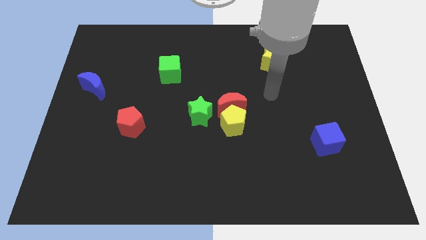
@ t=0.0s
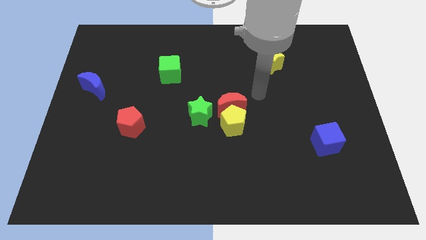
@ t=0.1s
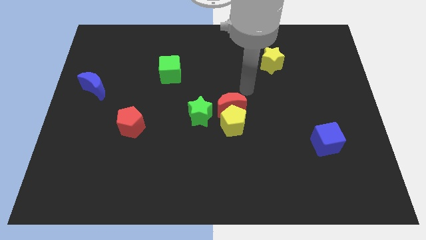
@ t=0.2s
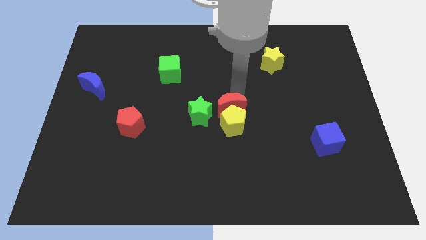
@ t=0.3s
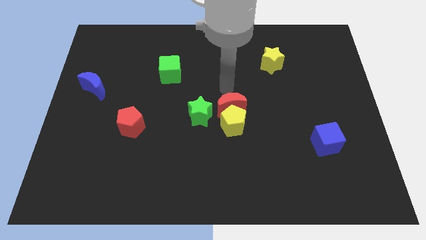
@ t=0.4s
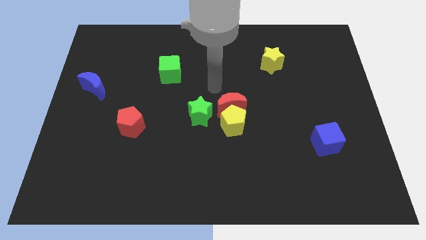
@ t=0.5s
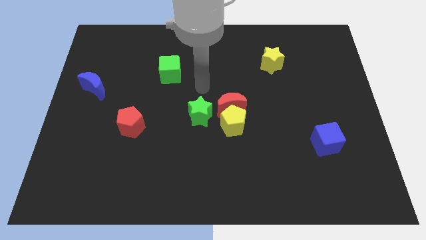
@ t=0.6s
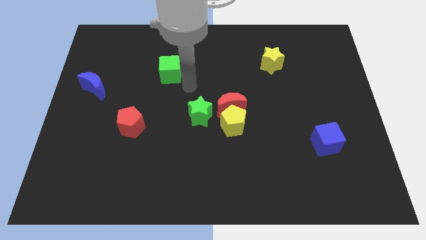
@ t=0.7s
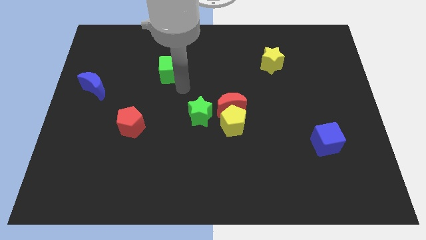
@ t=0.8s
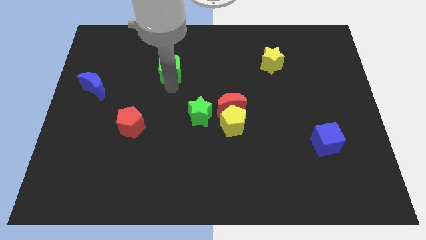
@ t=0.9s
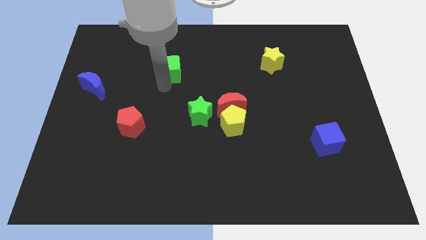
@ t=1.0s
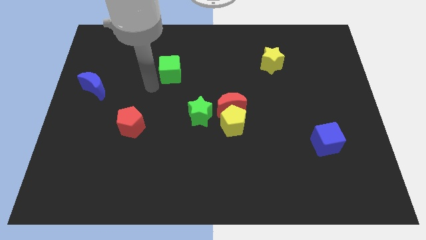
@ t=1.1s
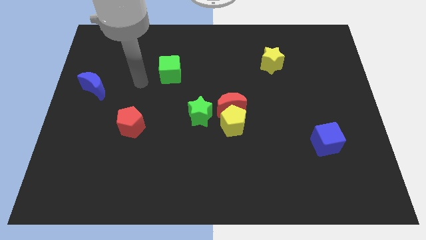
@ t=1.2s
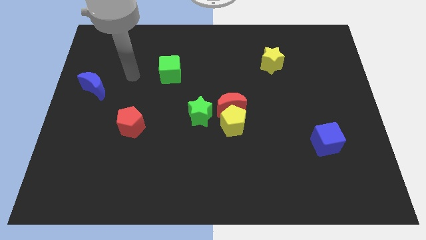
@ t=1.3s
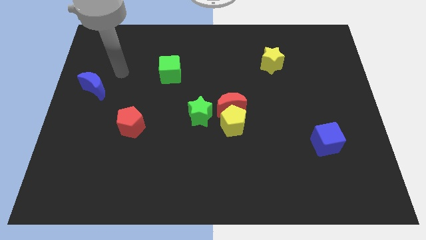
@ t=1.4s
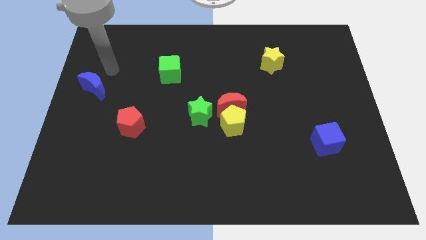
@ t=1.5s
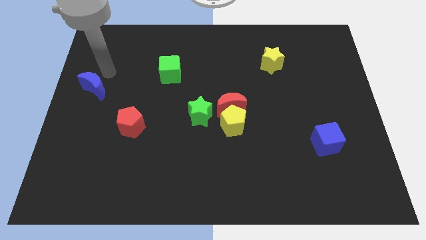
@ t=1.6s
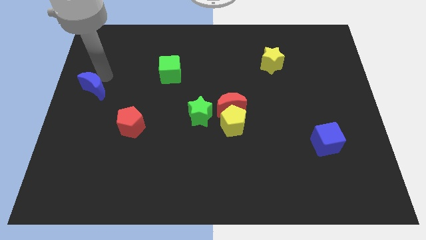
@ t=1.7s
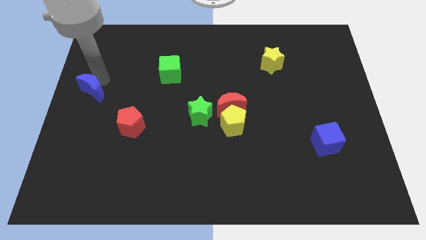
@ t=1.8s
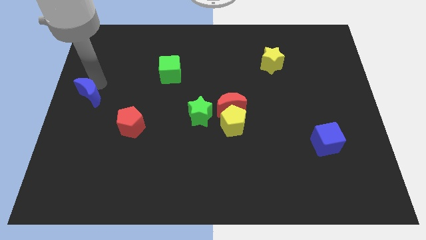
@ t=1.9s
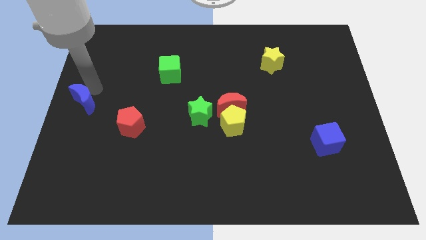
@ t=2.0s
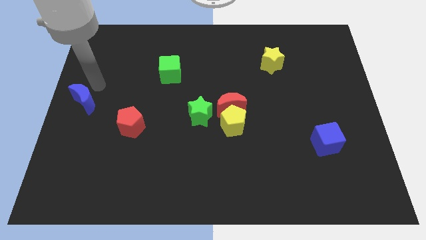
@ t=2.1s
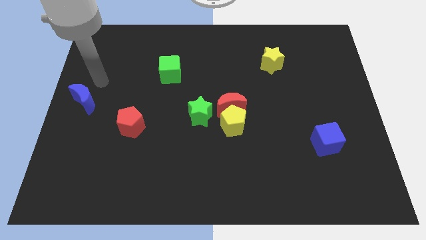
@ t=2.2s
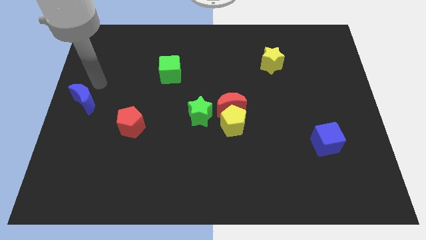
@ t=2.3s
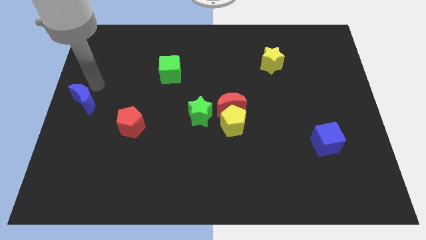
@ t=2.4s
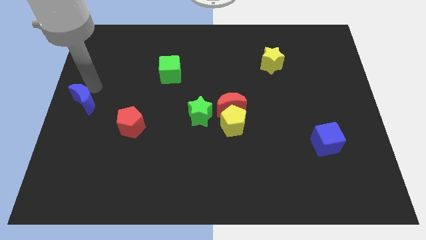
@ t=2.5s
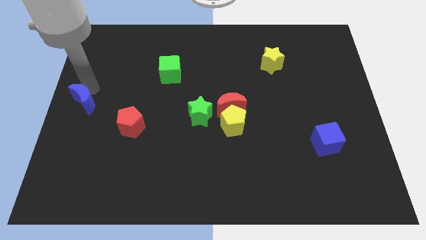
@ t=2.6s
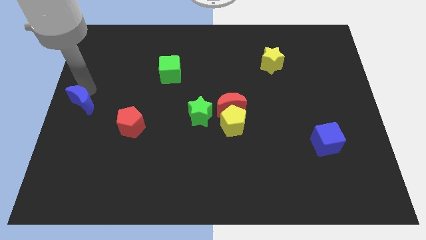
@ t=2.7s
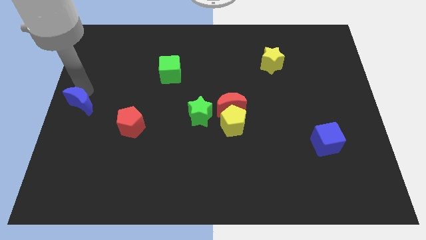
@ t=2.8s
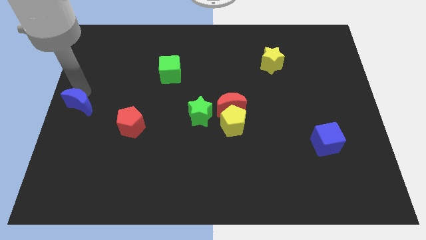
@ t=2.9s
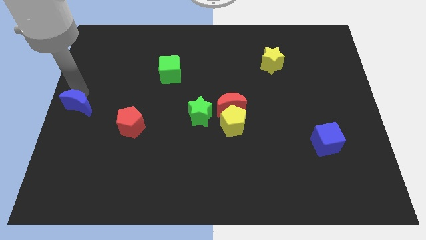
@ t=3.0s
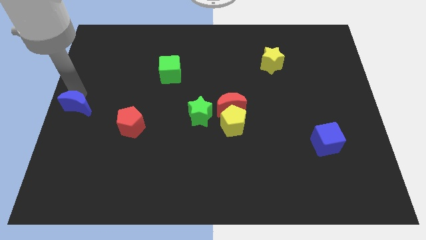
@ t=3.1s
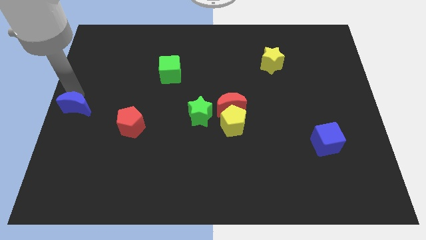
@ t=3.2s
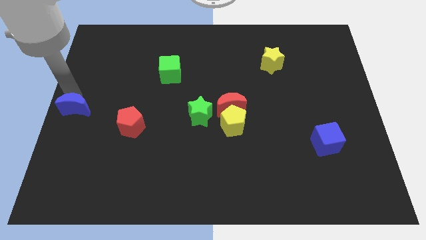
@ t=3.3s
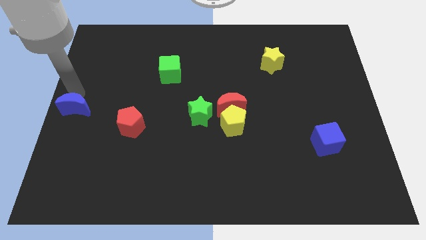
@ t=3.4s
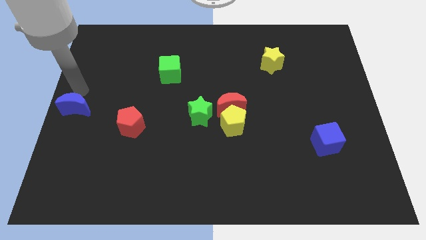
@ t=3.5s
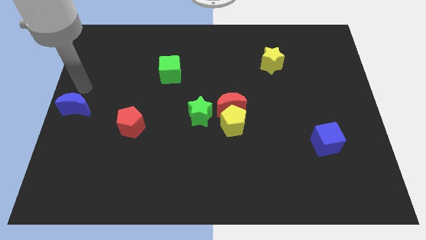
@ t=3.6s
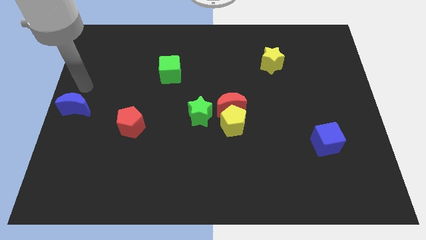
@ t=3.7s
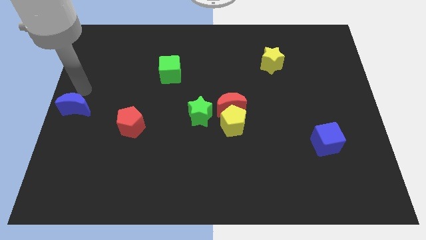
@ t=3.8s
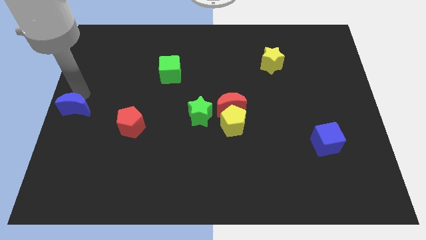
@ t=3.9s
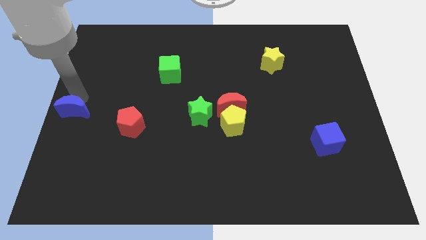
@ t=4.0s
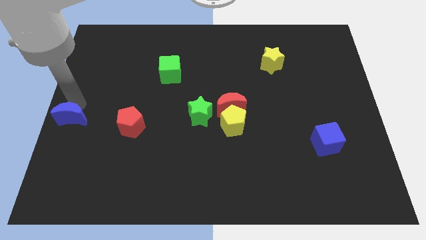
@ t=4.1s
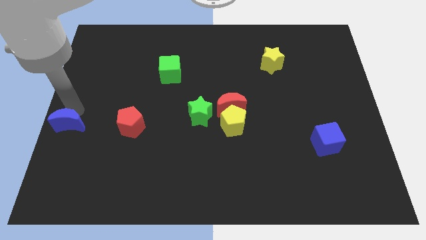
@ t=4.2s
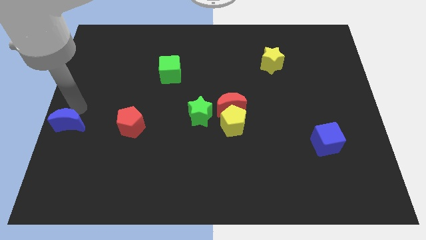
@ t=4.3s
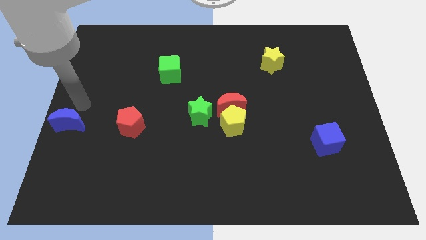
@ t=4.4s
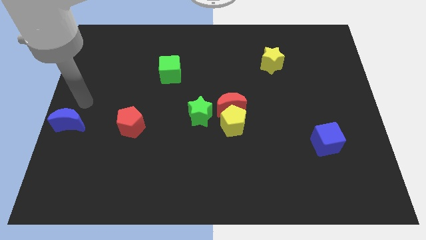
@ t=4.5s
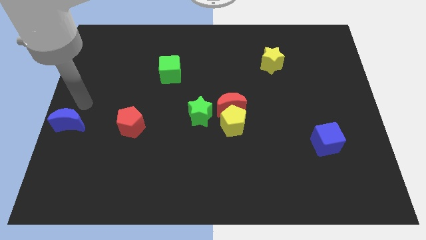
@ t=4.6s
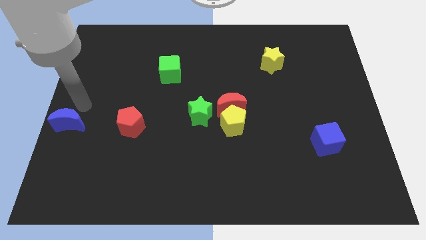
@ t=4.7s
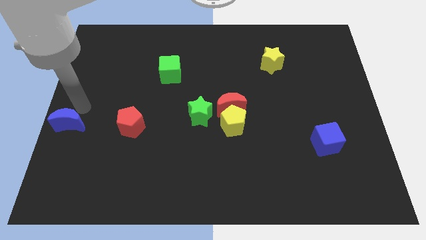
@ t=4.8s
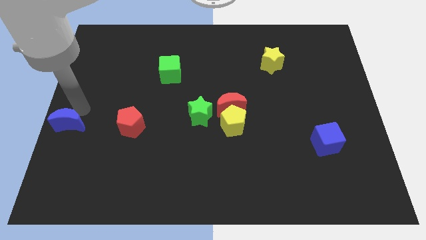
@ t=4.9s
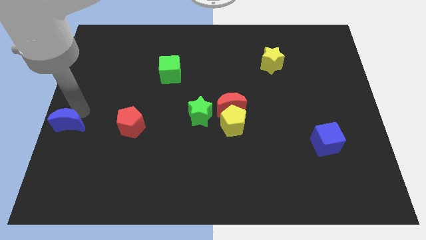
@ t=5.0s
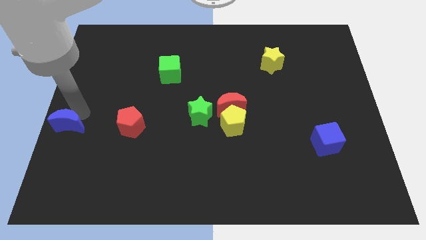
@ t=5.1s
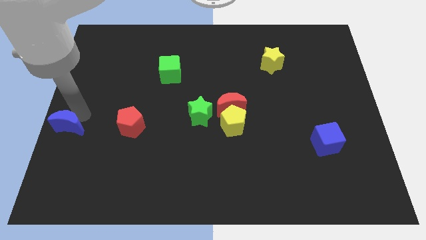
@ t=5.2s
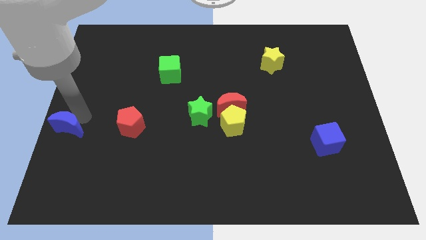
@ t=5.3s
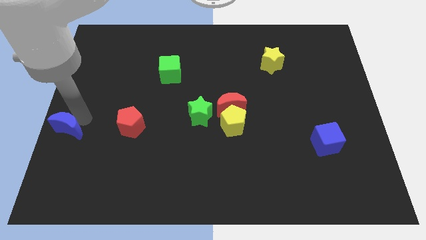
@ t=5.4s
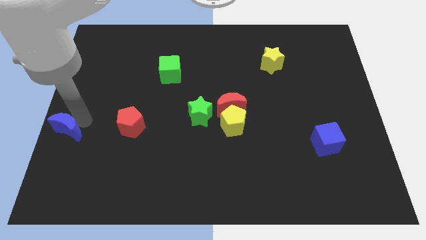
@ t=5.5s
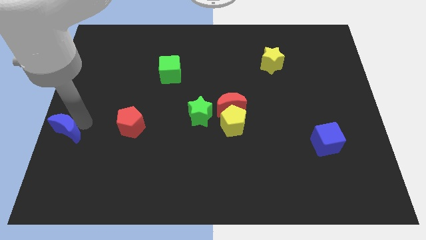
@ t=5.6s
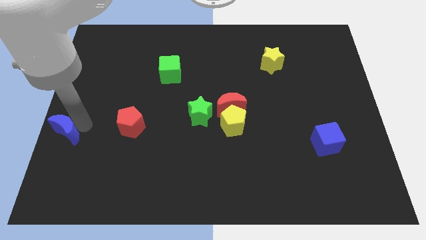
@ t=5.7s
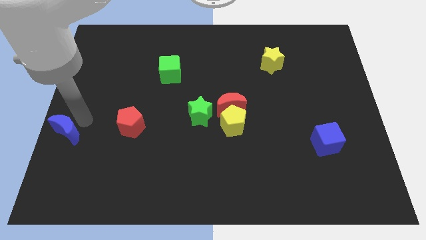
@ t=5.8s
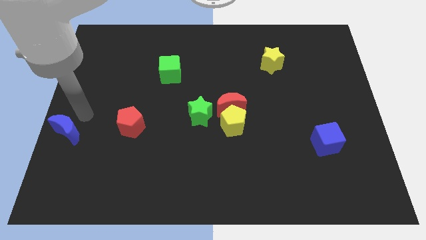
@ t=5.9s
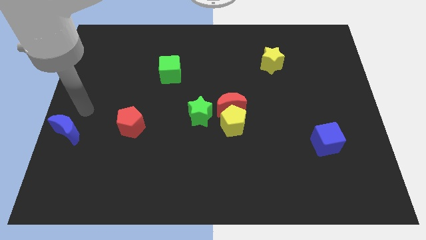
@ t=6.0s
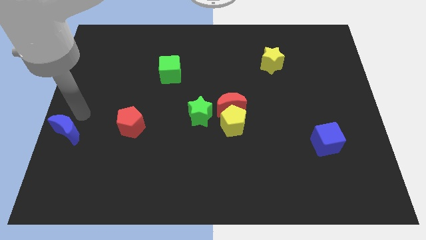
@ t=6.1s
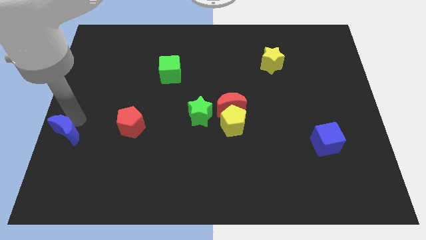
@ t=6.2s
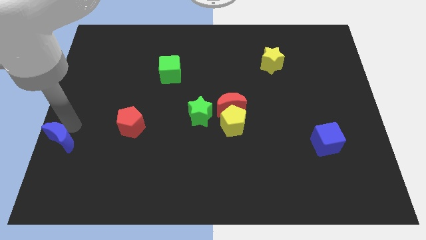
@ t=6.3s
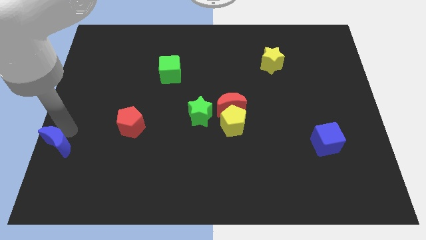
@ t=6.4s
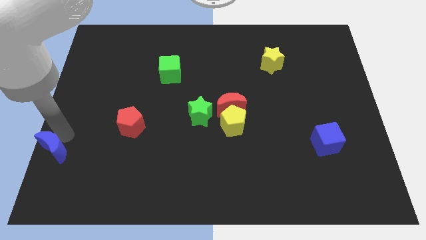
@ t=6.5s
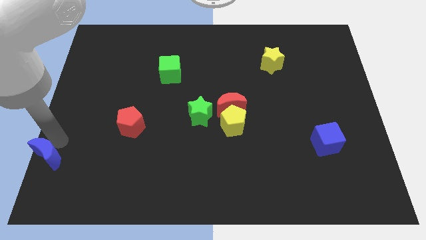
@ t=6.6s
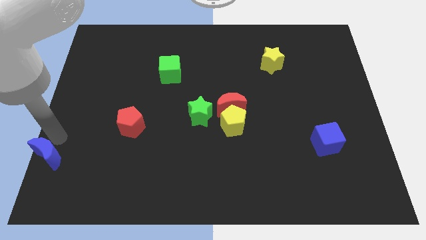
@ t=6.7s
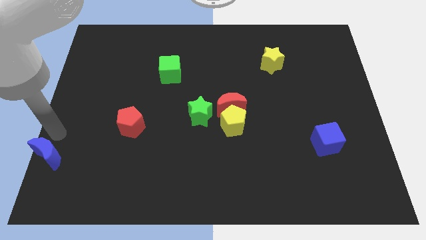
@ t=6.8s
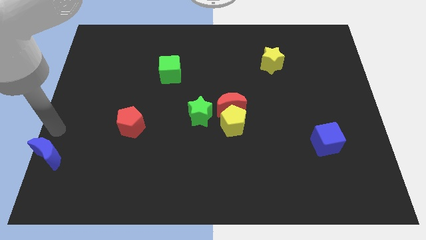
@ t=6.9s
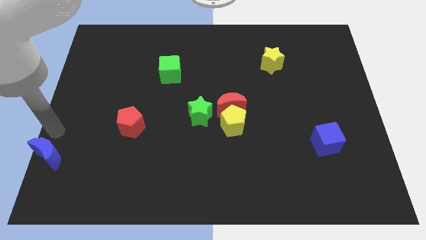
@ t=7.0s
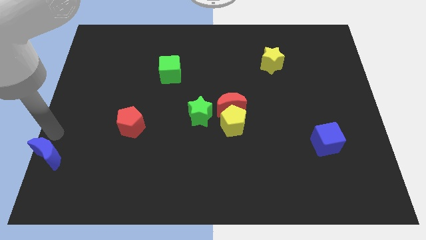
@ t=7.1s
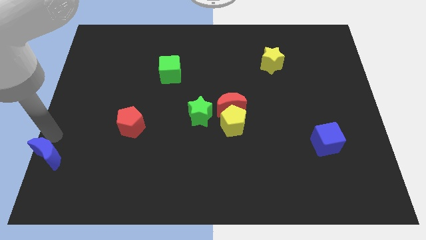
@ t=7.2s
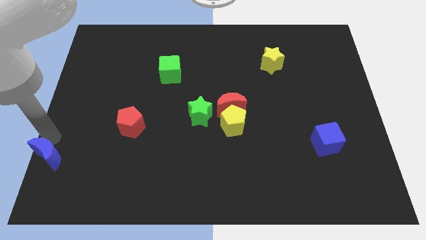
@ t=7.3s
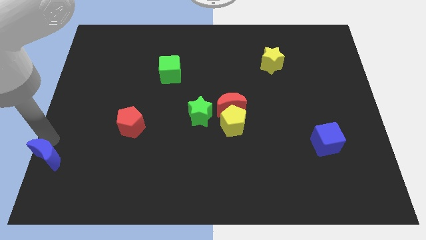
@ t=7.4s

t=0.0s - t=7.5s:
push the blue moon to the bottom left of the board

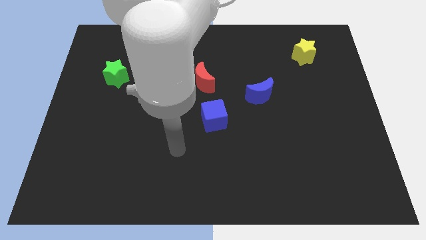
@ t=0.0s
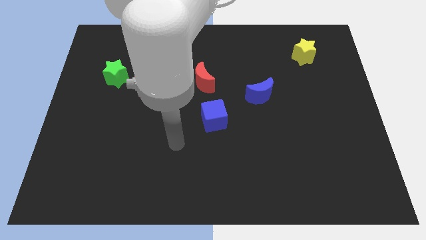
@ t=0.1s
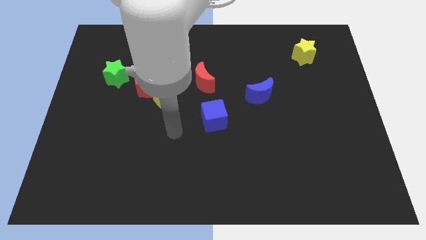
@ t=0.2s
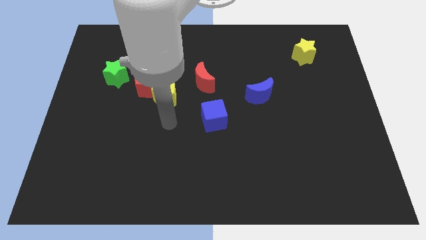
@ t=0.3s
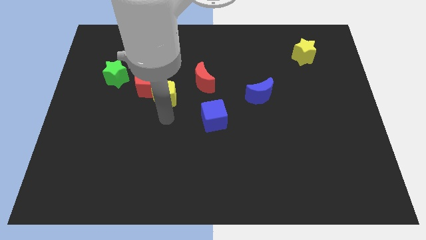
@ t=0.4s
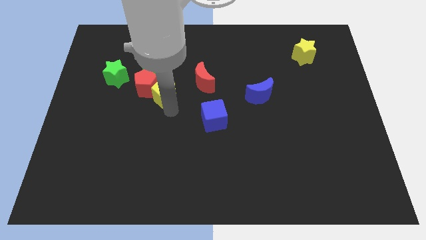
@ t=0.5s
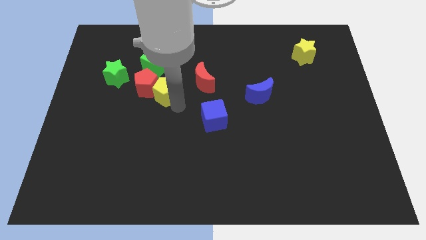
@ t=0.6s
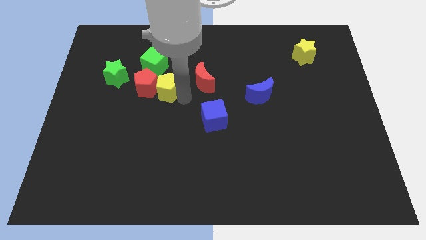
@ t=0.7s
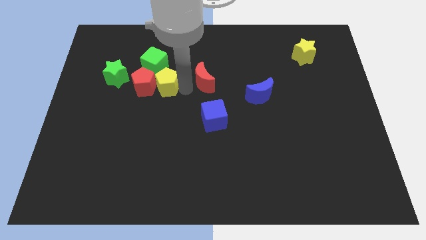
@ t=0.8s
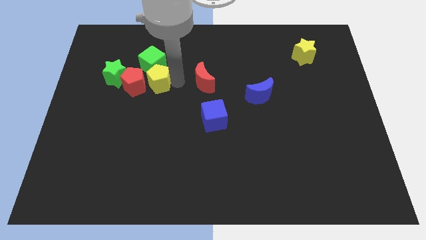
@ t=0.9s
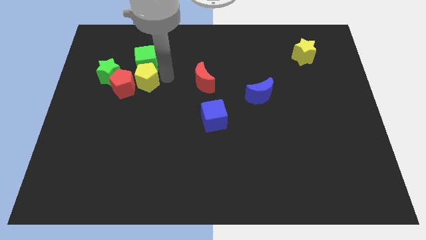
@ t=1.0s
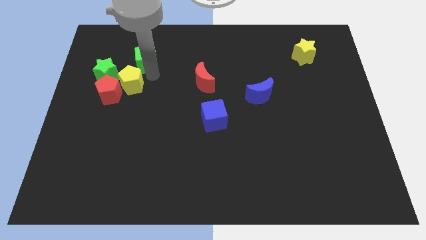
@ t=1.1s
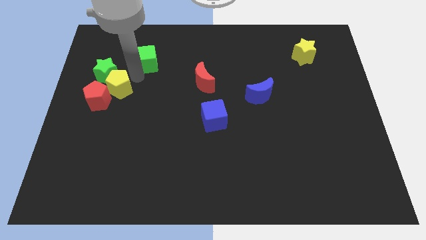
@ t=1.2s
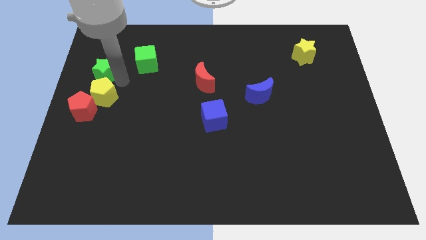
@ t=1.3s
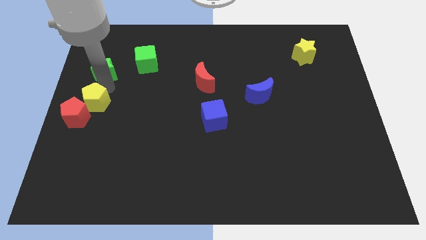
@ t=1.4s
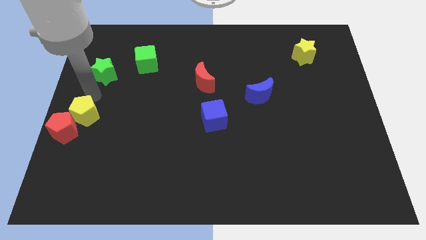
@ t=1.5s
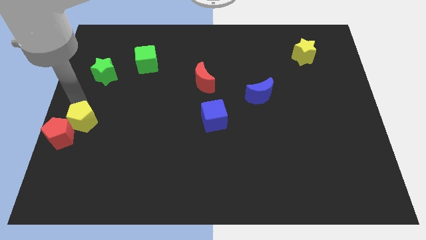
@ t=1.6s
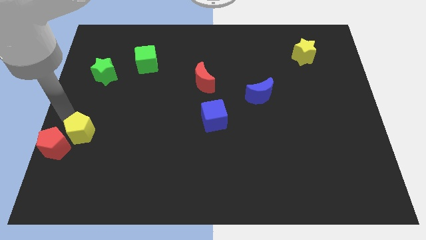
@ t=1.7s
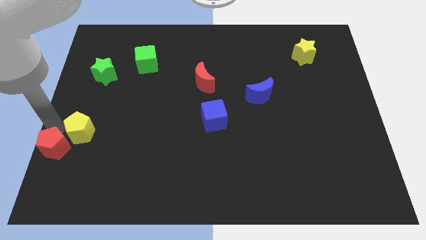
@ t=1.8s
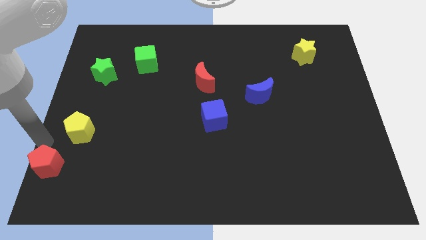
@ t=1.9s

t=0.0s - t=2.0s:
slide the red pentagon to the lower left corner
